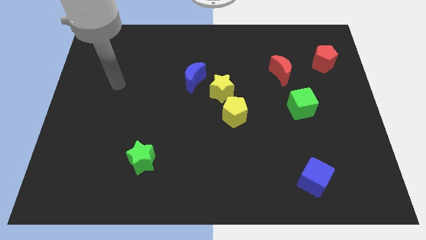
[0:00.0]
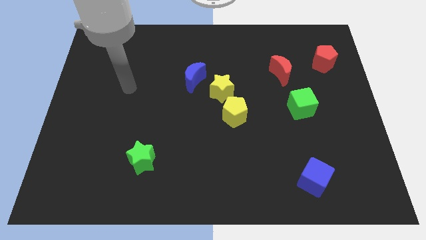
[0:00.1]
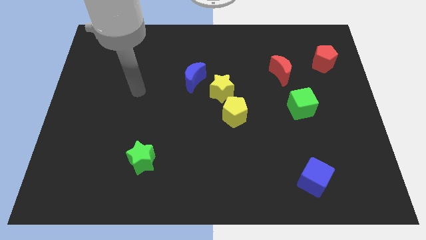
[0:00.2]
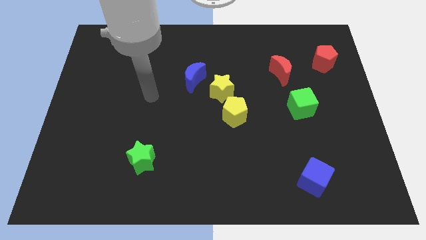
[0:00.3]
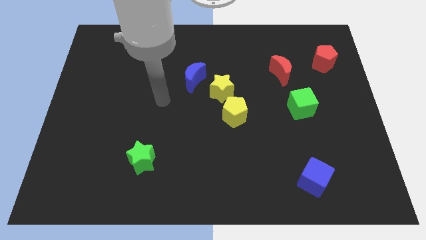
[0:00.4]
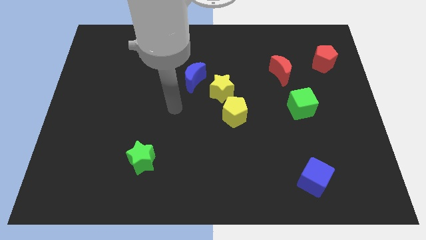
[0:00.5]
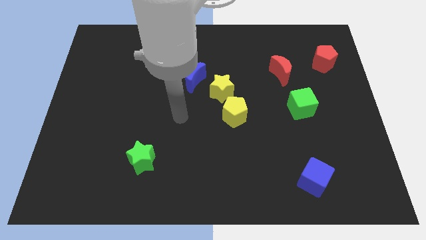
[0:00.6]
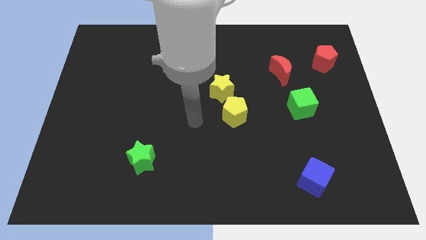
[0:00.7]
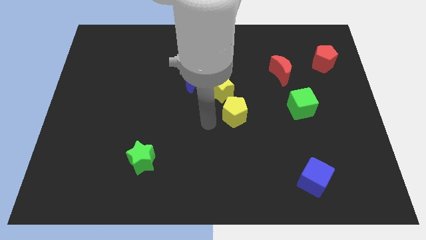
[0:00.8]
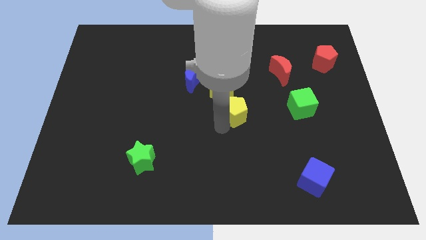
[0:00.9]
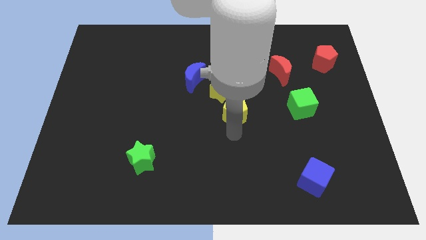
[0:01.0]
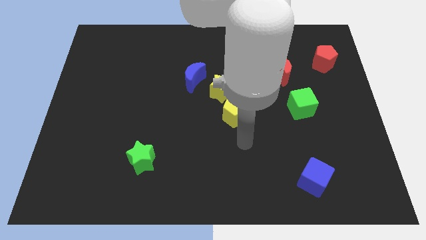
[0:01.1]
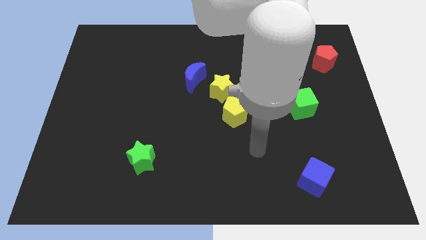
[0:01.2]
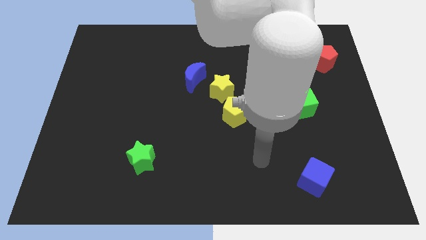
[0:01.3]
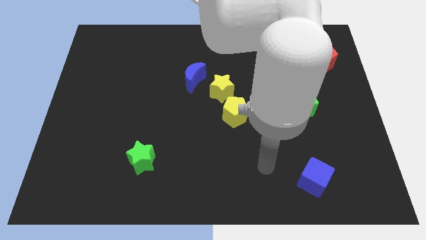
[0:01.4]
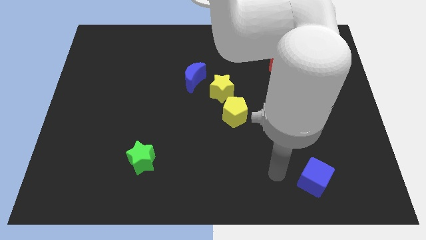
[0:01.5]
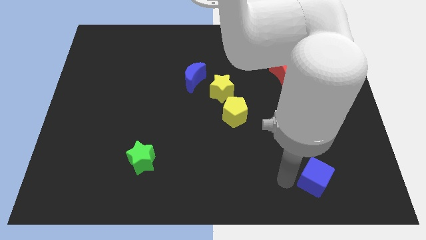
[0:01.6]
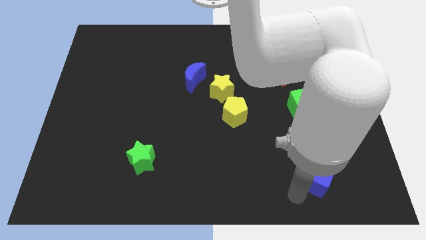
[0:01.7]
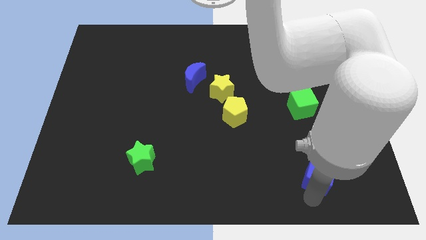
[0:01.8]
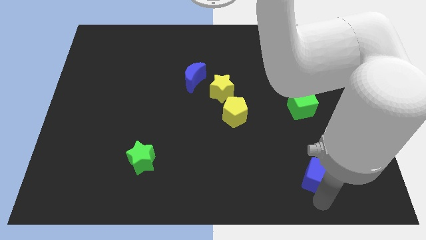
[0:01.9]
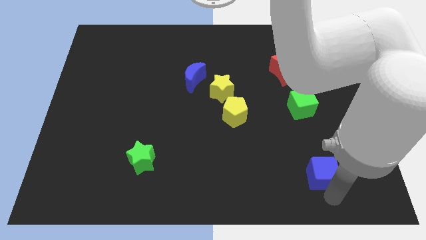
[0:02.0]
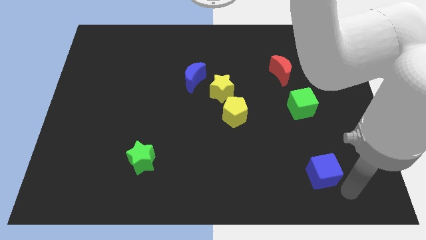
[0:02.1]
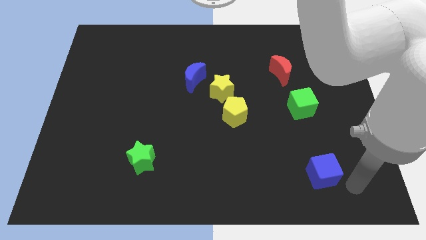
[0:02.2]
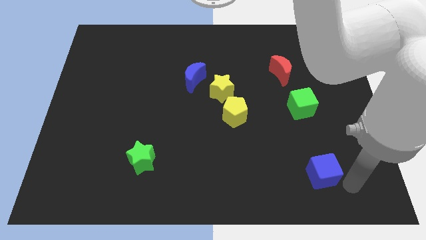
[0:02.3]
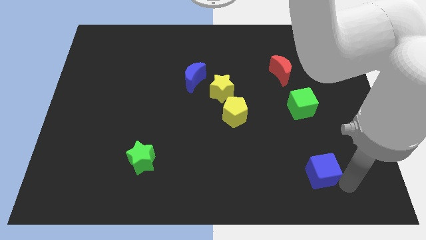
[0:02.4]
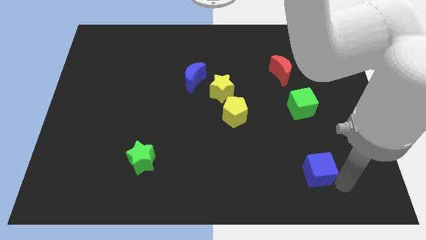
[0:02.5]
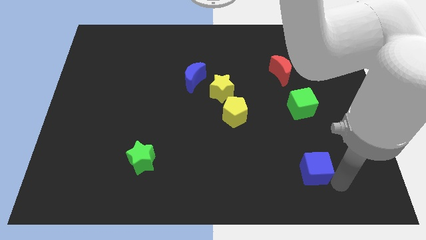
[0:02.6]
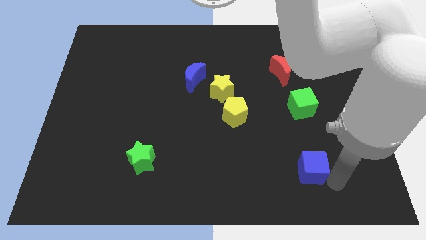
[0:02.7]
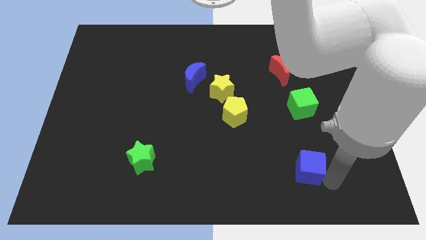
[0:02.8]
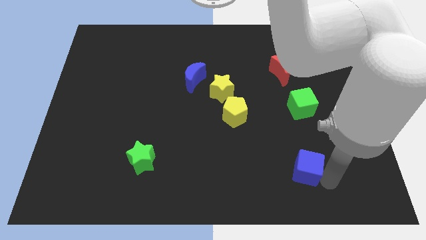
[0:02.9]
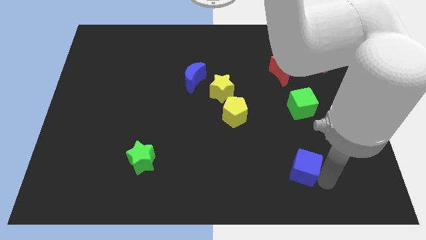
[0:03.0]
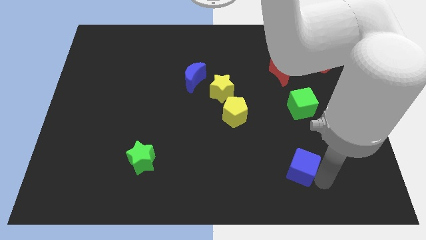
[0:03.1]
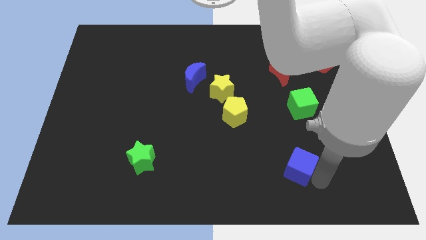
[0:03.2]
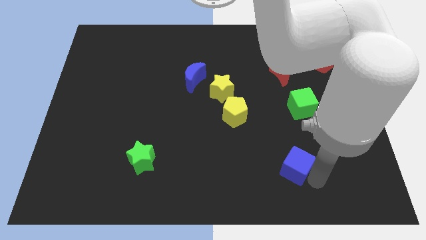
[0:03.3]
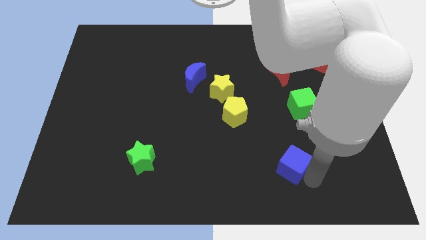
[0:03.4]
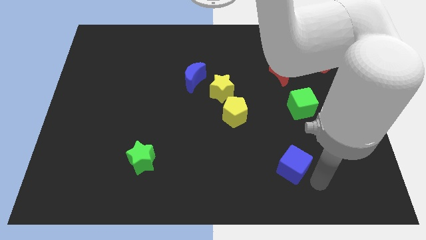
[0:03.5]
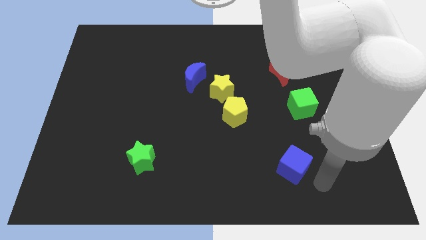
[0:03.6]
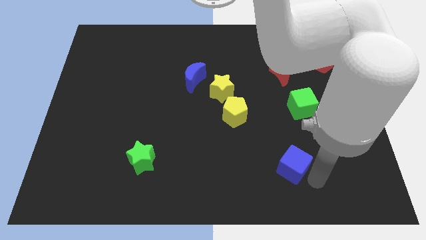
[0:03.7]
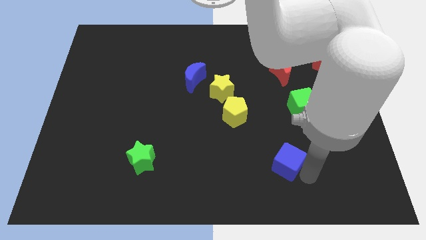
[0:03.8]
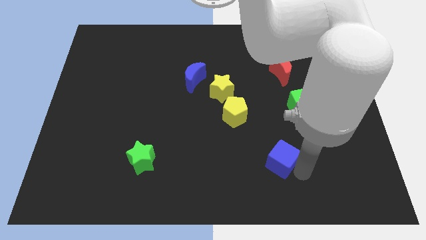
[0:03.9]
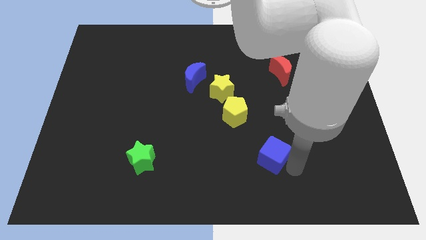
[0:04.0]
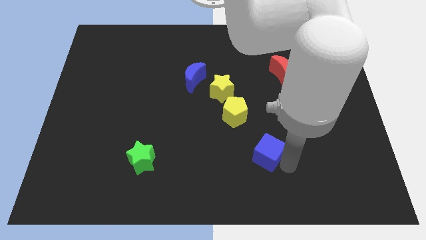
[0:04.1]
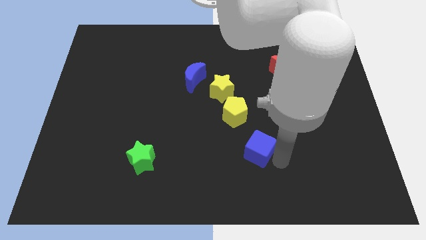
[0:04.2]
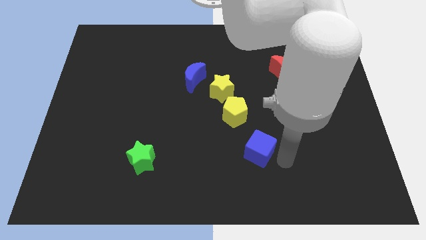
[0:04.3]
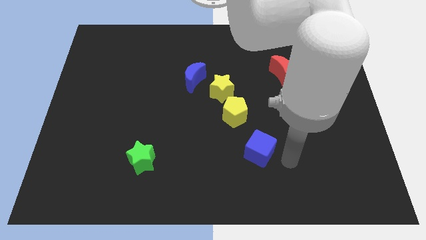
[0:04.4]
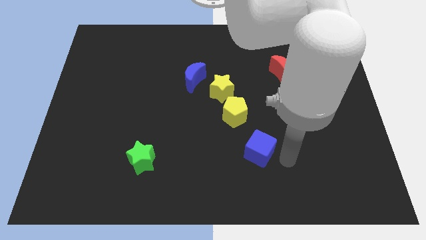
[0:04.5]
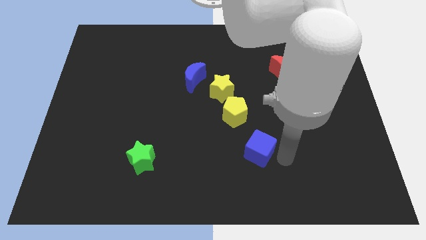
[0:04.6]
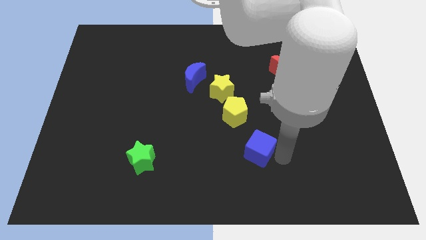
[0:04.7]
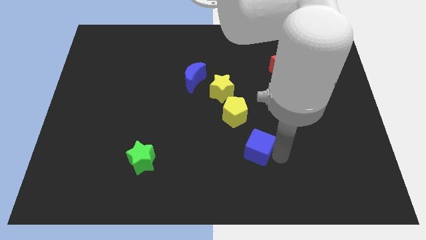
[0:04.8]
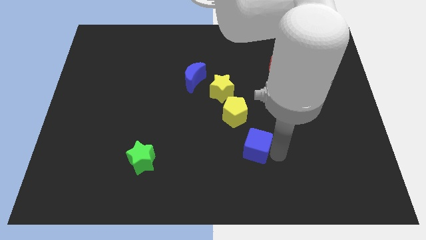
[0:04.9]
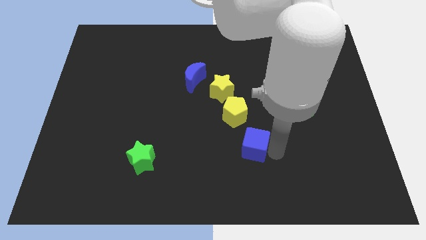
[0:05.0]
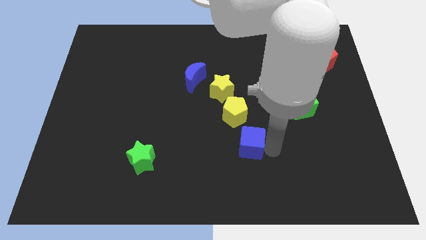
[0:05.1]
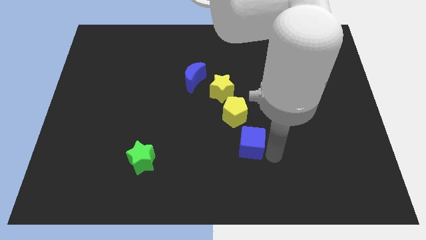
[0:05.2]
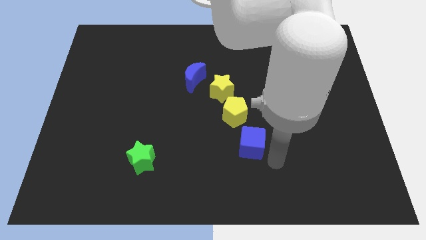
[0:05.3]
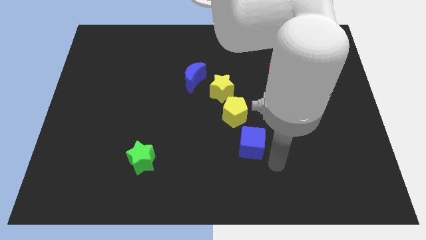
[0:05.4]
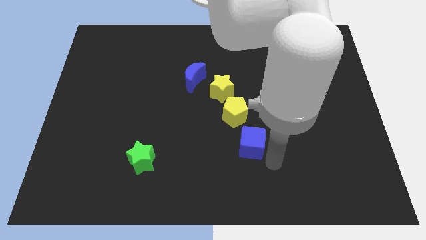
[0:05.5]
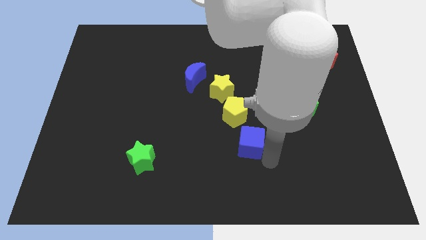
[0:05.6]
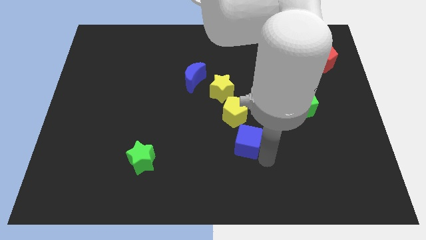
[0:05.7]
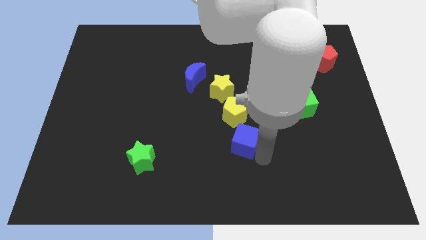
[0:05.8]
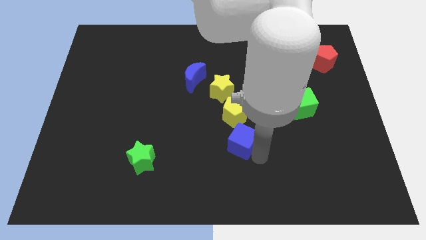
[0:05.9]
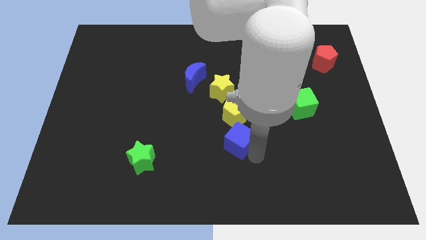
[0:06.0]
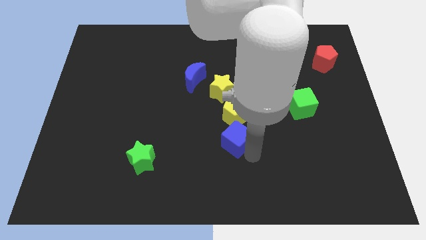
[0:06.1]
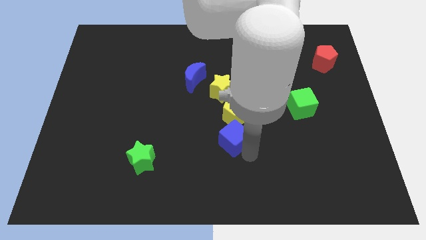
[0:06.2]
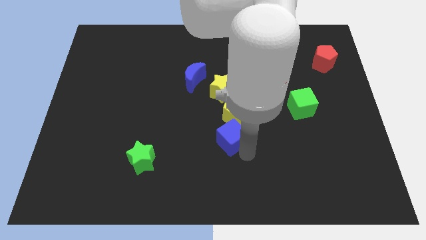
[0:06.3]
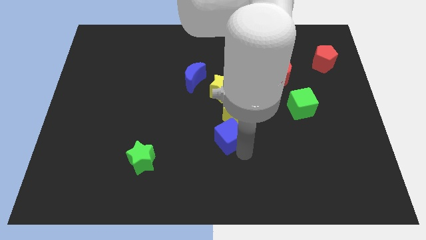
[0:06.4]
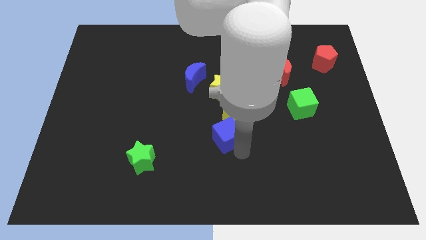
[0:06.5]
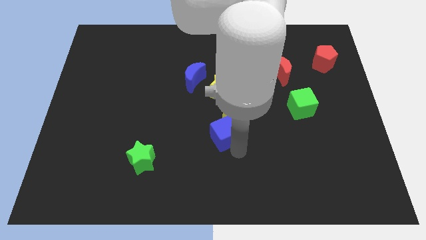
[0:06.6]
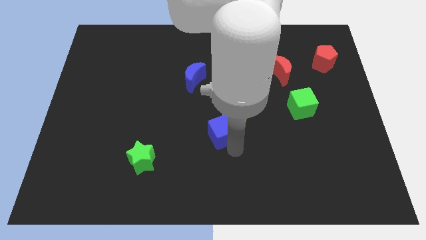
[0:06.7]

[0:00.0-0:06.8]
move the blue cube up and to the left diagonally

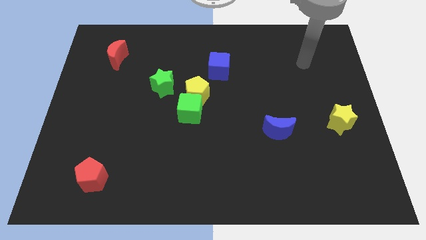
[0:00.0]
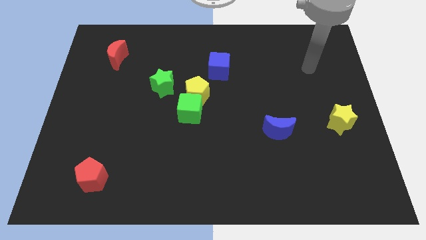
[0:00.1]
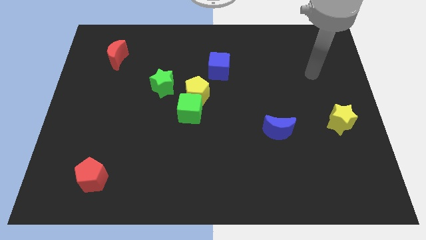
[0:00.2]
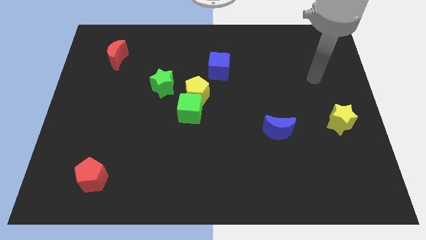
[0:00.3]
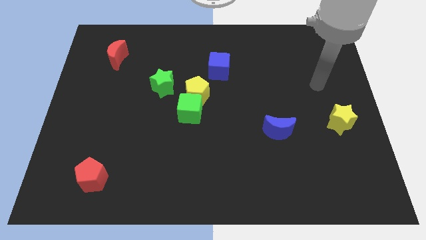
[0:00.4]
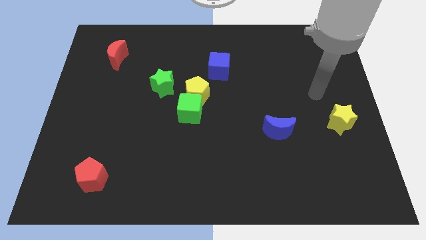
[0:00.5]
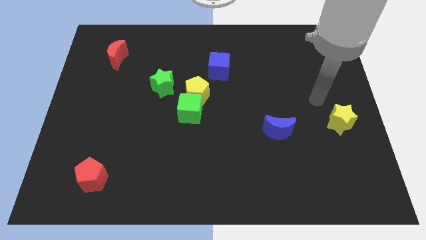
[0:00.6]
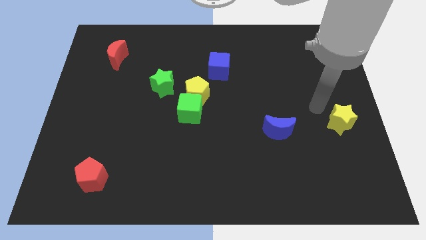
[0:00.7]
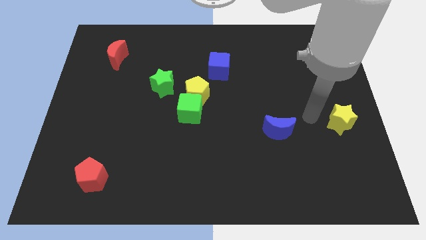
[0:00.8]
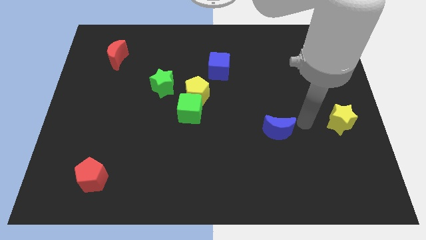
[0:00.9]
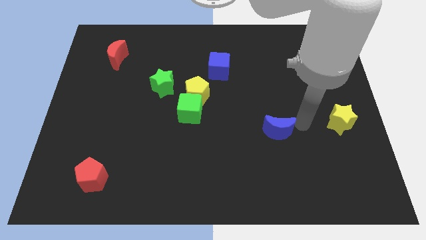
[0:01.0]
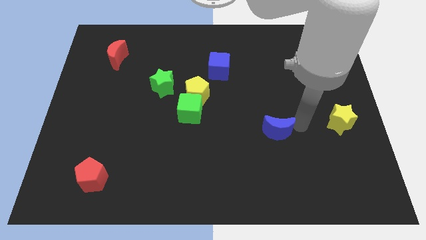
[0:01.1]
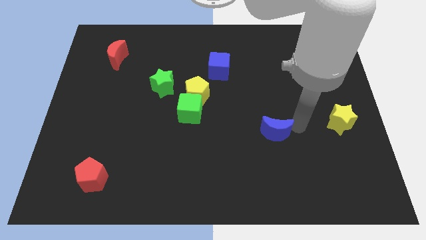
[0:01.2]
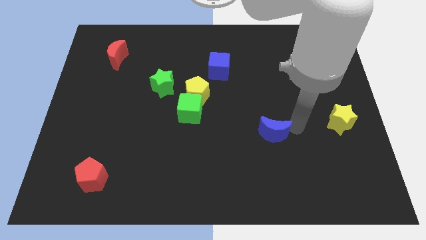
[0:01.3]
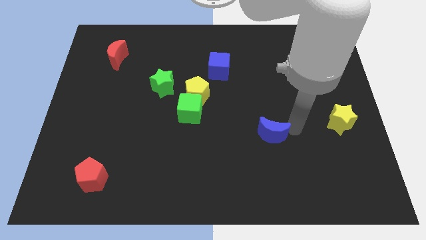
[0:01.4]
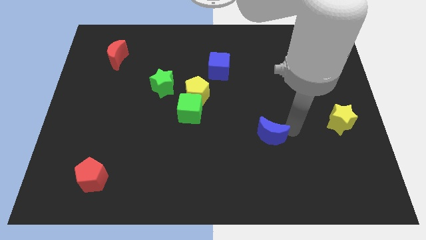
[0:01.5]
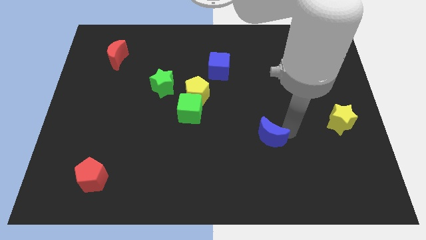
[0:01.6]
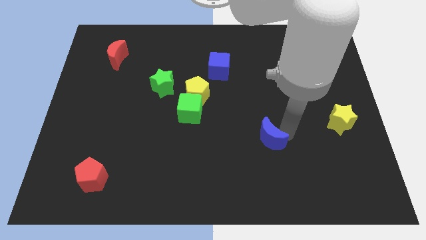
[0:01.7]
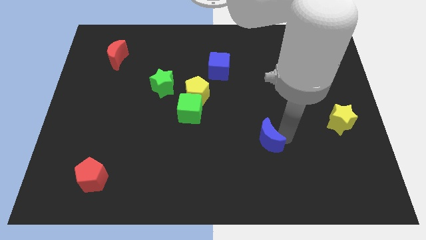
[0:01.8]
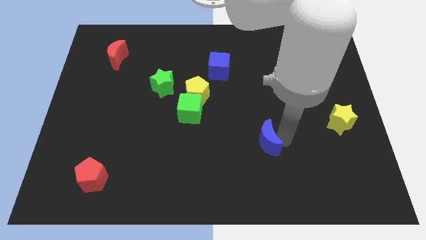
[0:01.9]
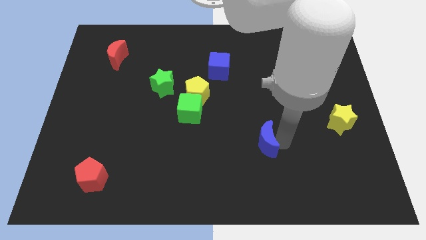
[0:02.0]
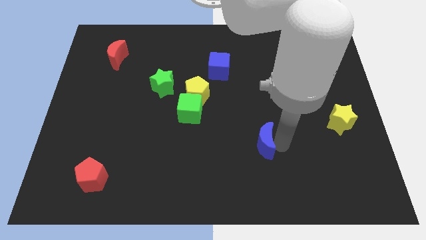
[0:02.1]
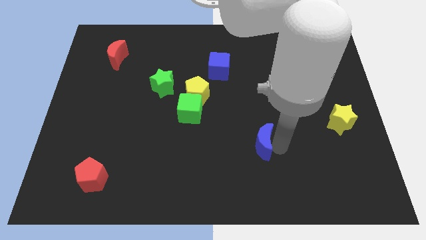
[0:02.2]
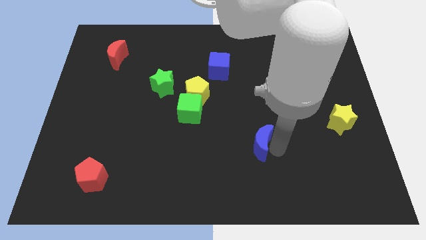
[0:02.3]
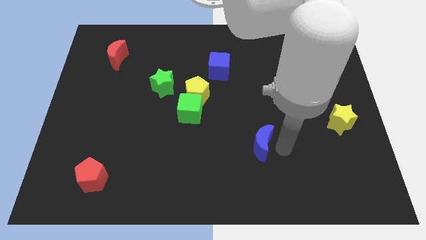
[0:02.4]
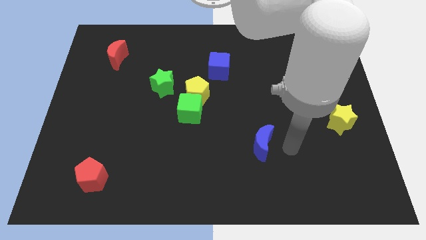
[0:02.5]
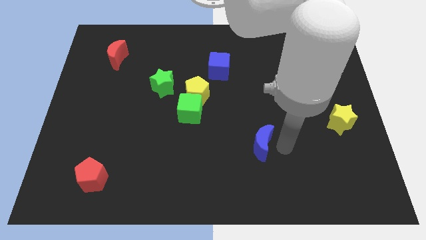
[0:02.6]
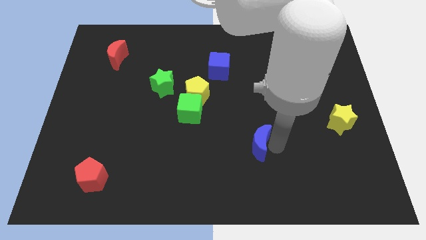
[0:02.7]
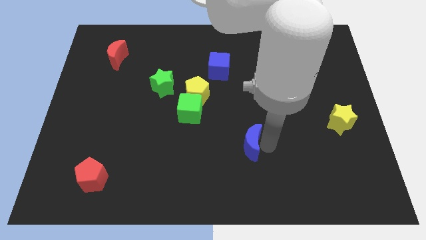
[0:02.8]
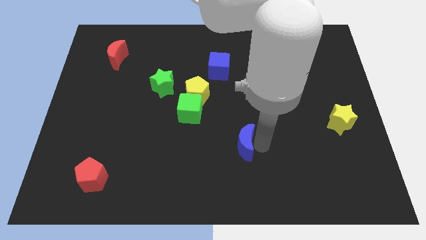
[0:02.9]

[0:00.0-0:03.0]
push the blue moon left somewhat
